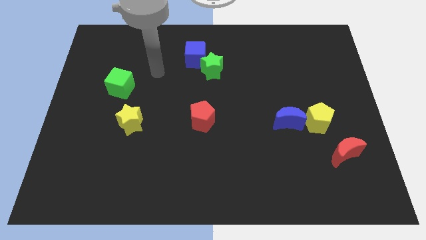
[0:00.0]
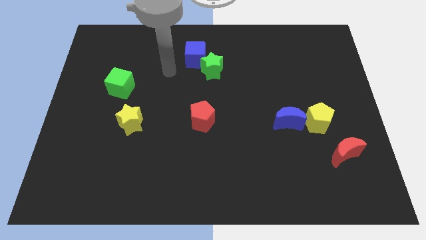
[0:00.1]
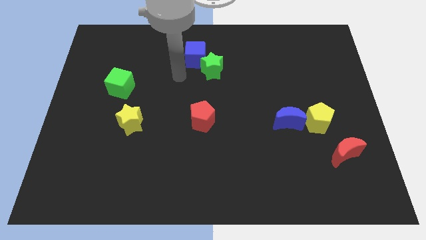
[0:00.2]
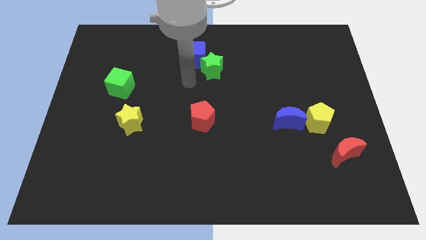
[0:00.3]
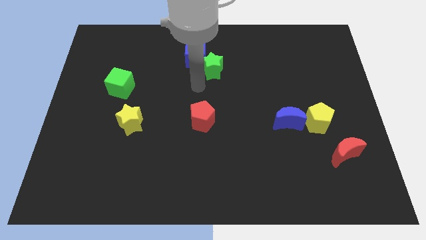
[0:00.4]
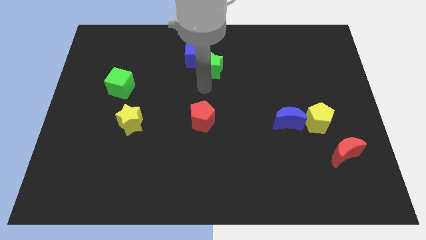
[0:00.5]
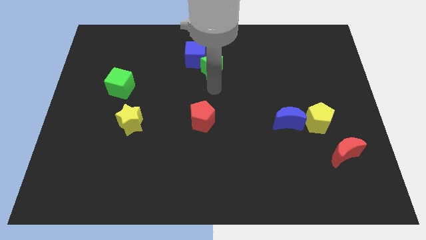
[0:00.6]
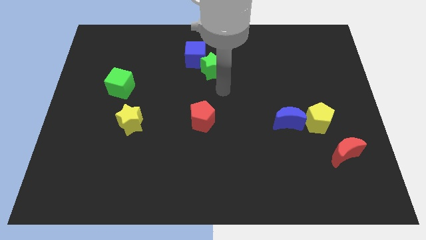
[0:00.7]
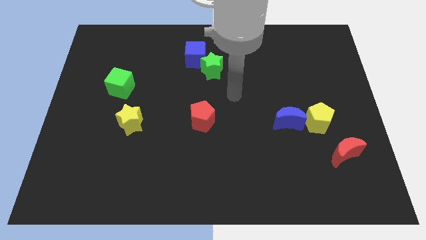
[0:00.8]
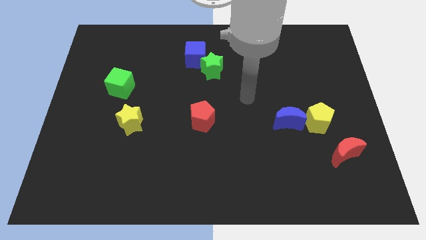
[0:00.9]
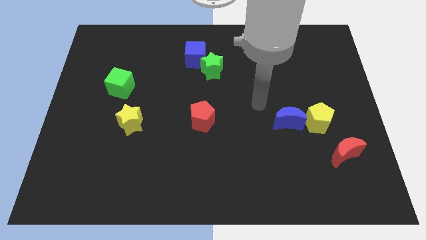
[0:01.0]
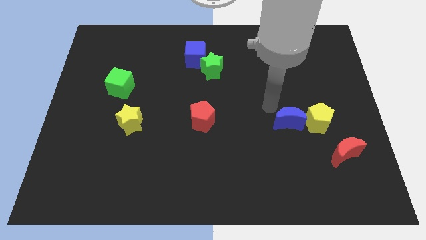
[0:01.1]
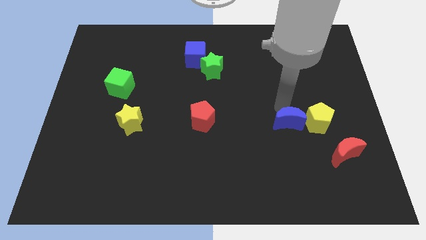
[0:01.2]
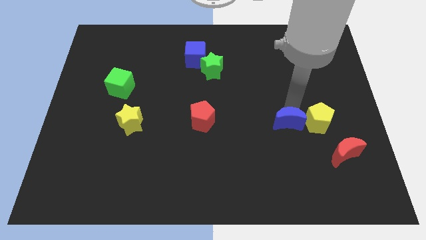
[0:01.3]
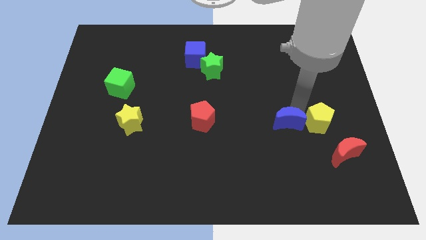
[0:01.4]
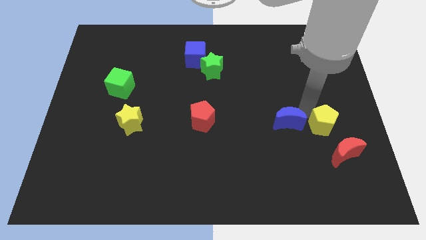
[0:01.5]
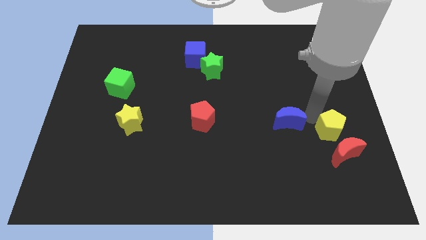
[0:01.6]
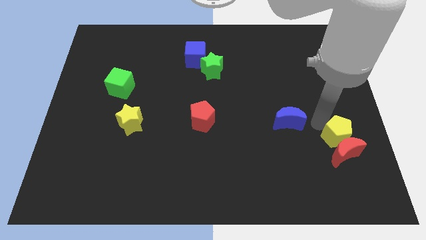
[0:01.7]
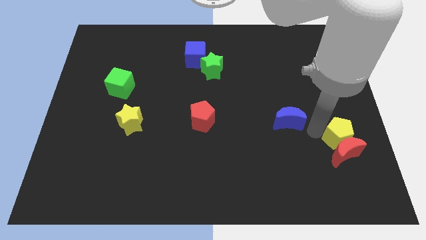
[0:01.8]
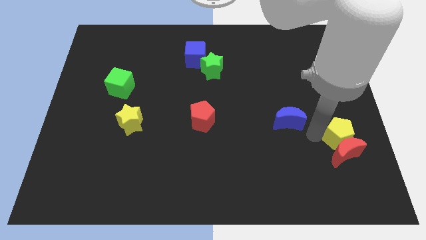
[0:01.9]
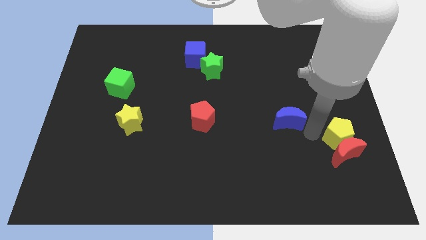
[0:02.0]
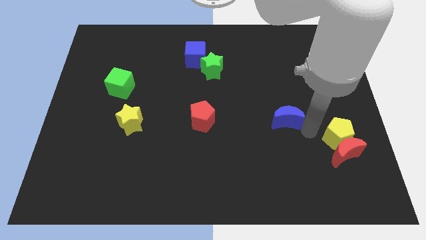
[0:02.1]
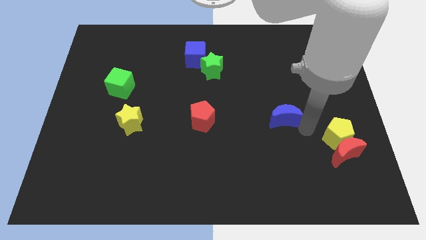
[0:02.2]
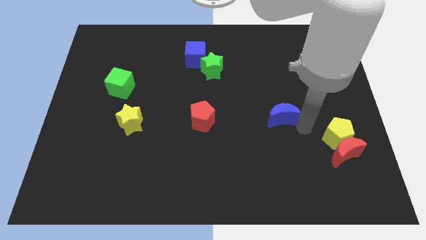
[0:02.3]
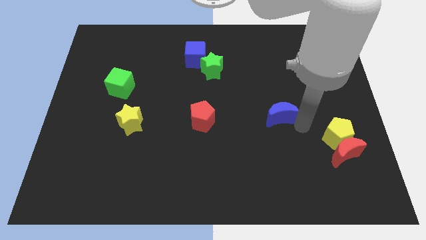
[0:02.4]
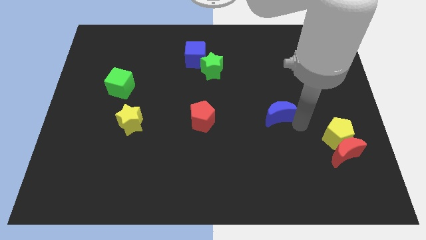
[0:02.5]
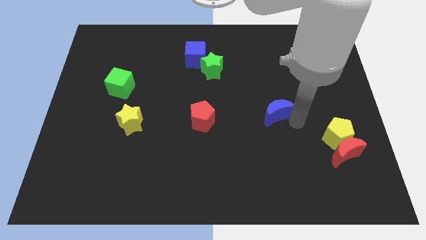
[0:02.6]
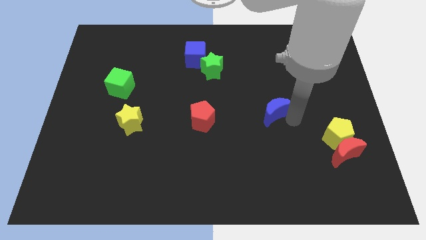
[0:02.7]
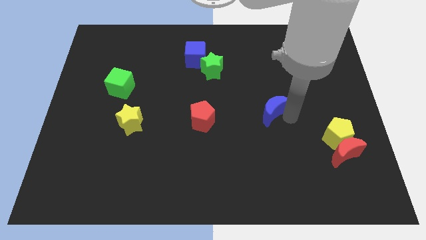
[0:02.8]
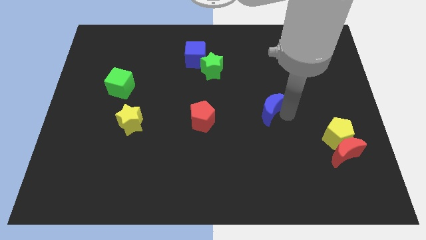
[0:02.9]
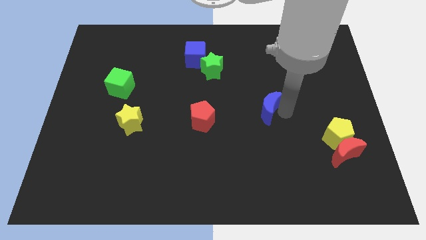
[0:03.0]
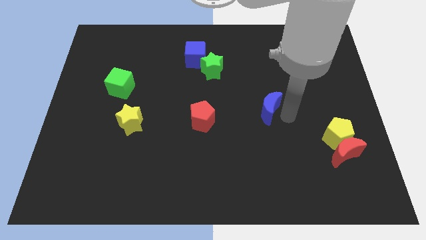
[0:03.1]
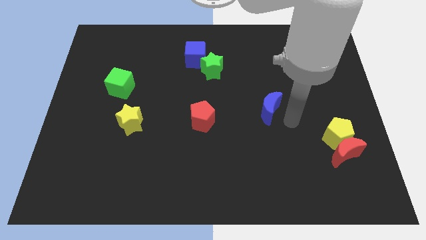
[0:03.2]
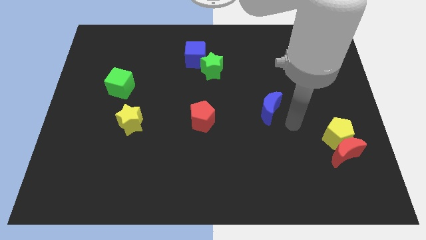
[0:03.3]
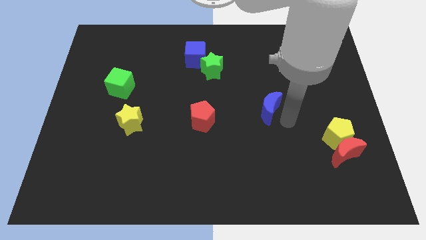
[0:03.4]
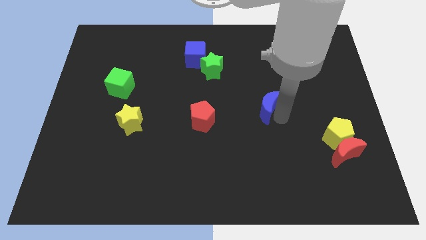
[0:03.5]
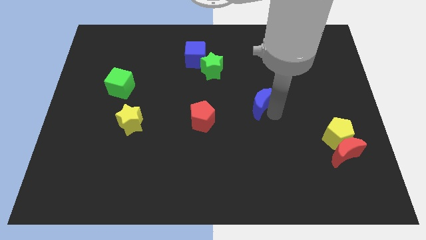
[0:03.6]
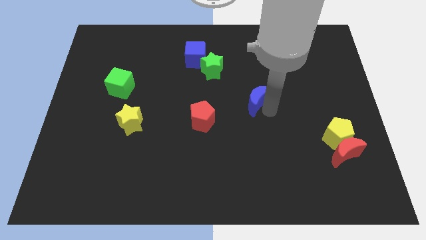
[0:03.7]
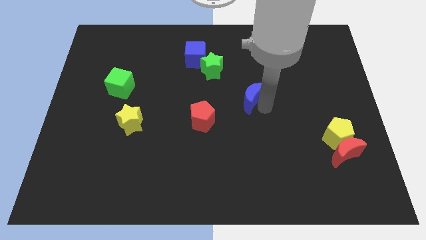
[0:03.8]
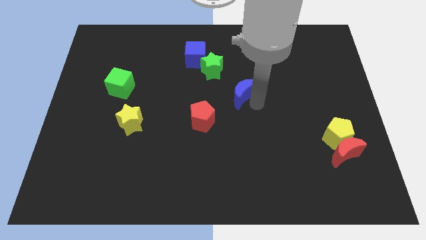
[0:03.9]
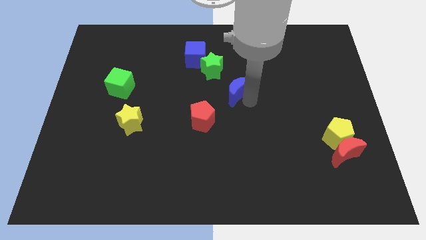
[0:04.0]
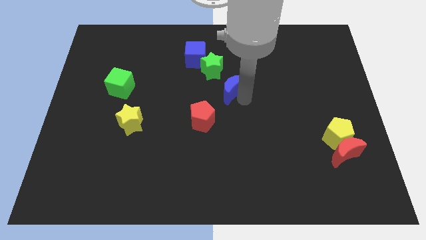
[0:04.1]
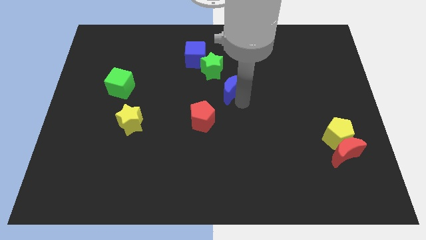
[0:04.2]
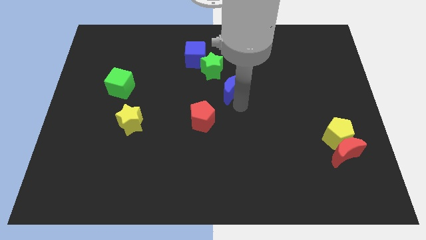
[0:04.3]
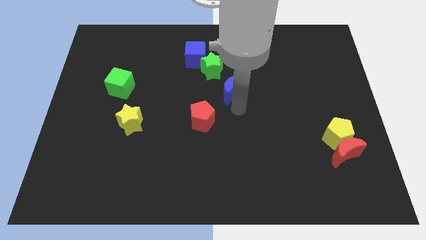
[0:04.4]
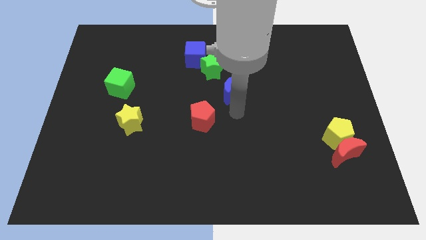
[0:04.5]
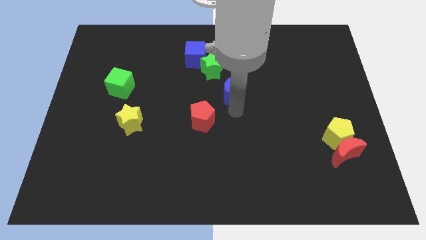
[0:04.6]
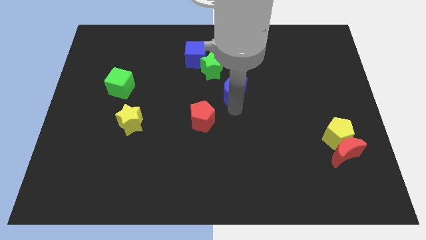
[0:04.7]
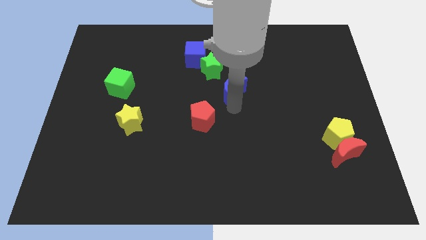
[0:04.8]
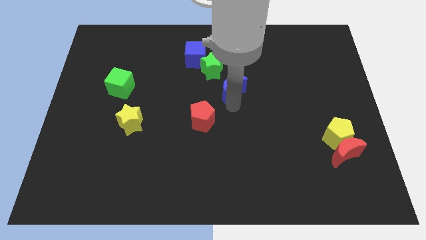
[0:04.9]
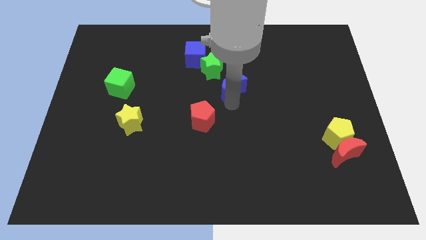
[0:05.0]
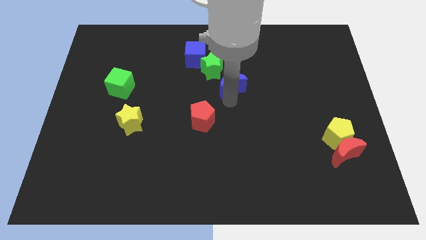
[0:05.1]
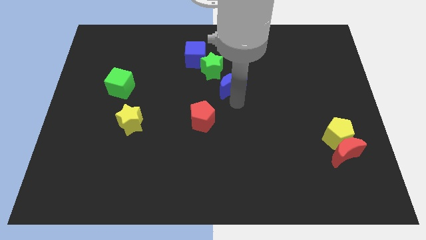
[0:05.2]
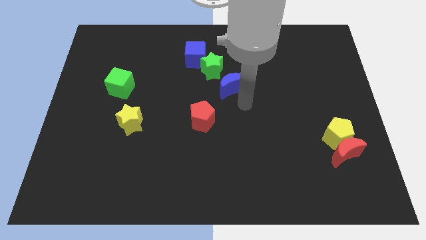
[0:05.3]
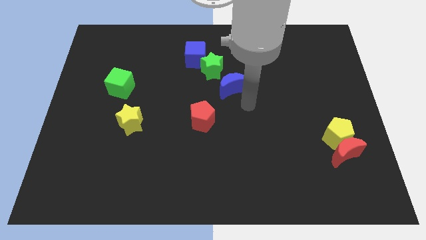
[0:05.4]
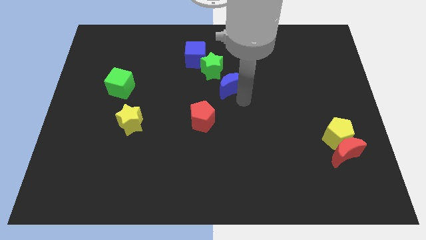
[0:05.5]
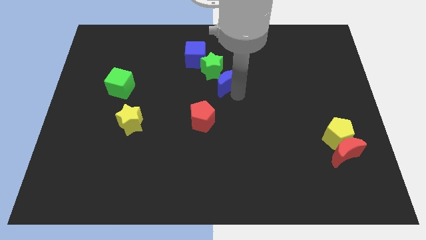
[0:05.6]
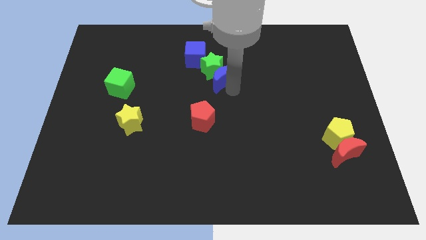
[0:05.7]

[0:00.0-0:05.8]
push the blue moon close to the green star

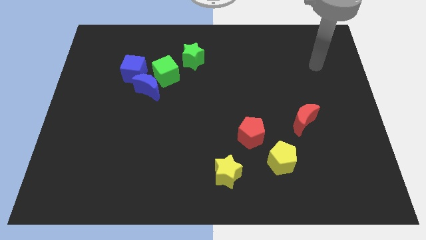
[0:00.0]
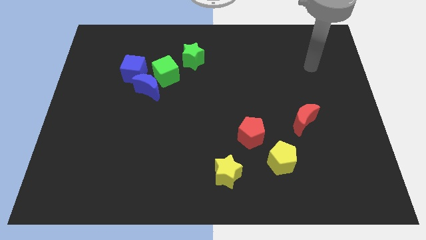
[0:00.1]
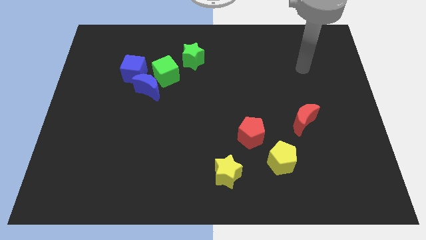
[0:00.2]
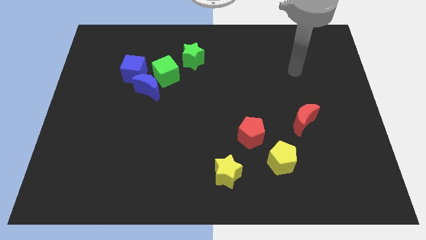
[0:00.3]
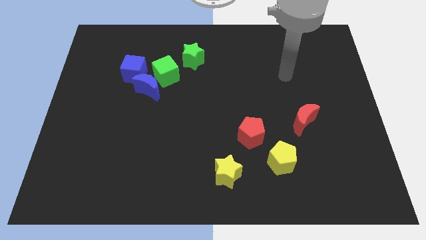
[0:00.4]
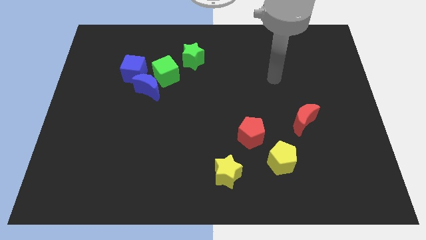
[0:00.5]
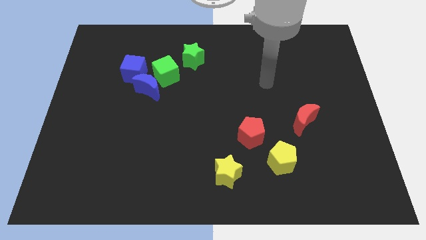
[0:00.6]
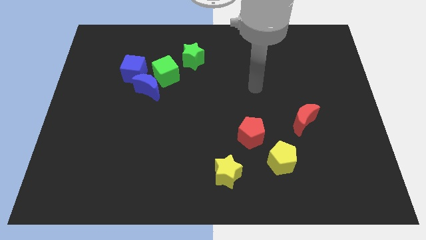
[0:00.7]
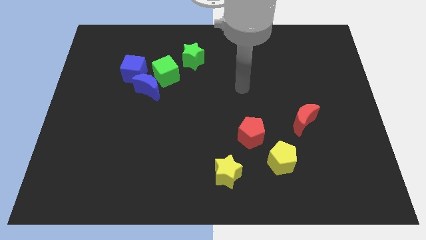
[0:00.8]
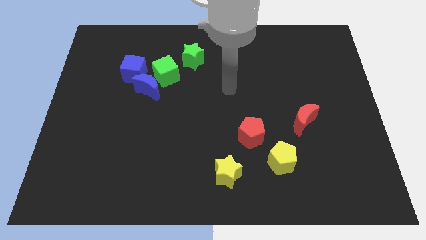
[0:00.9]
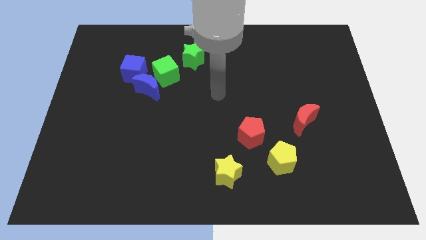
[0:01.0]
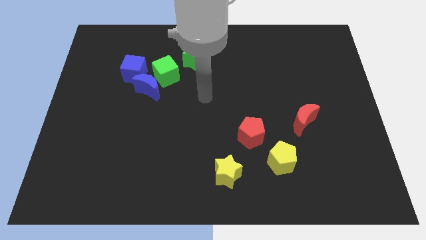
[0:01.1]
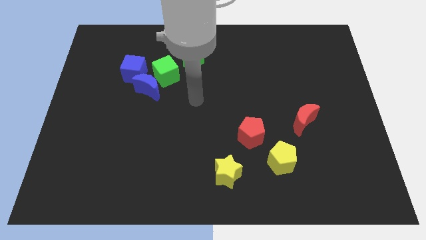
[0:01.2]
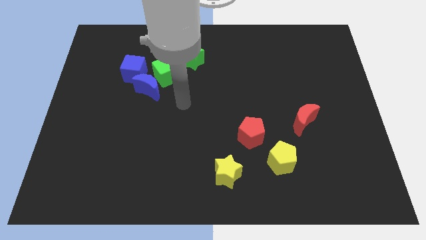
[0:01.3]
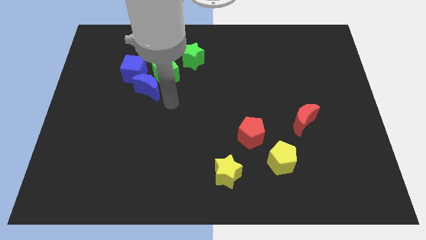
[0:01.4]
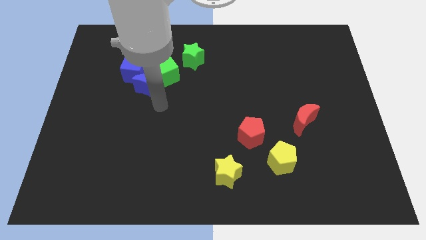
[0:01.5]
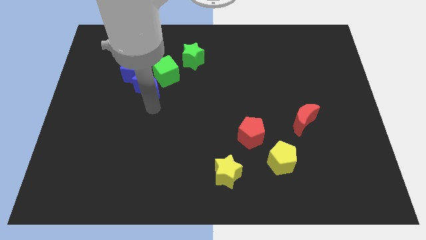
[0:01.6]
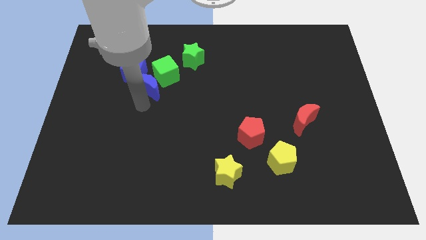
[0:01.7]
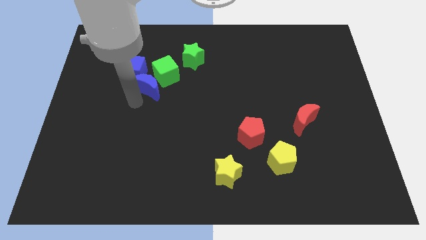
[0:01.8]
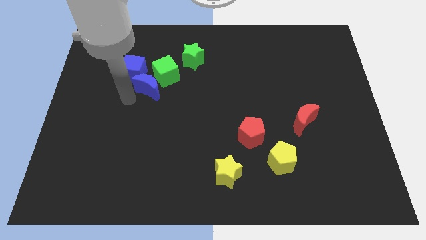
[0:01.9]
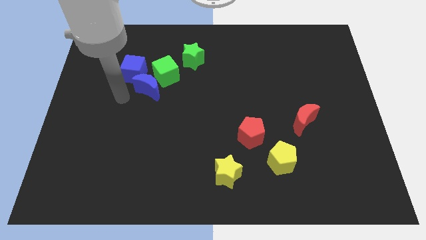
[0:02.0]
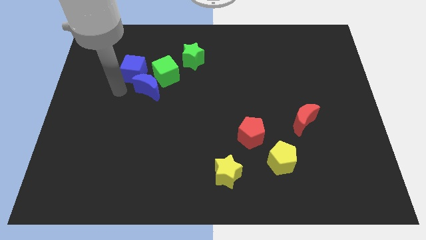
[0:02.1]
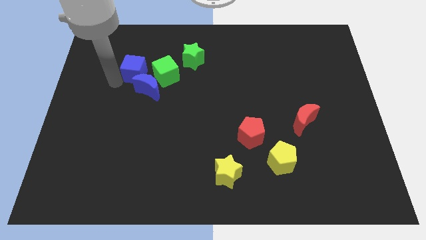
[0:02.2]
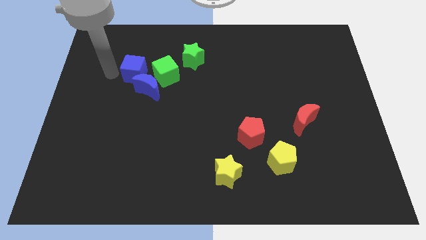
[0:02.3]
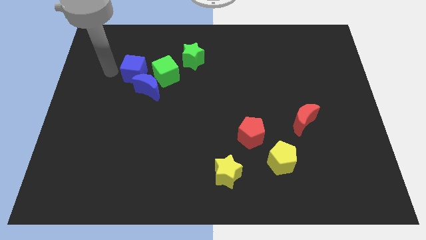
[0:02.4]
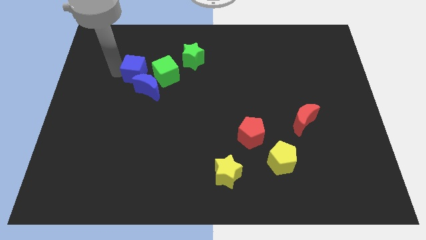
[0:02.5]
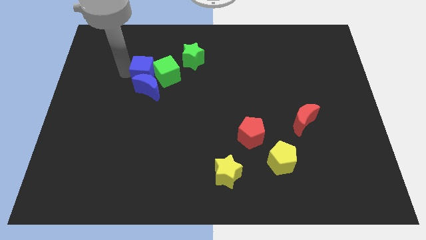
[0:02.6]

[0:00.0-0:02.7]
push the blue cube close to the green cube
